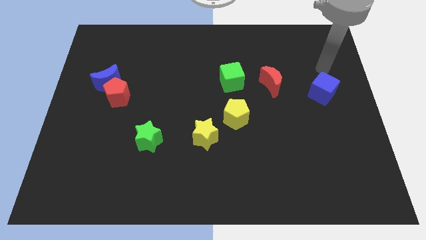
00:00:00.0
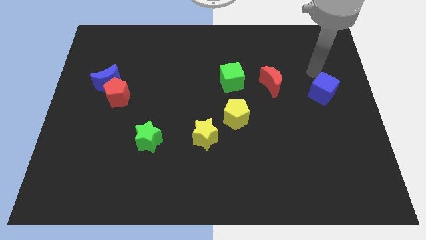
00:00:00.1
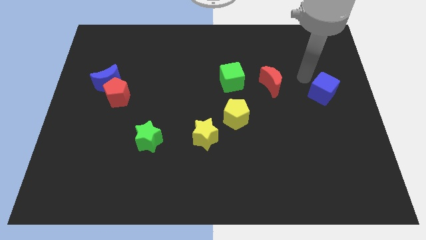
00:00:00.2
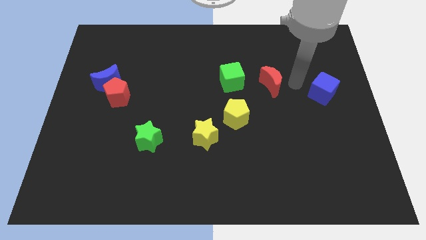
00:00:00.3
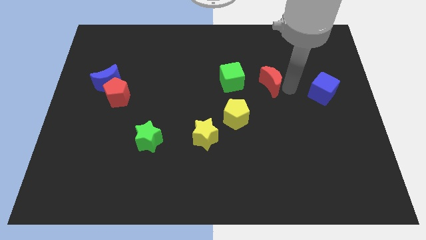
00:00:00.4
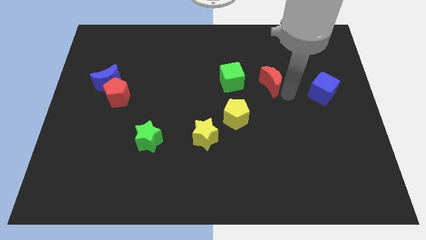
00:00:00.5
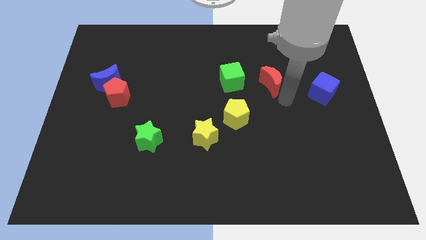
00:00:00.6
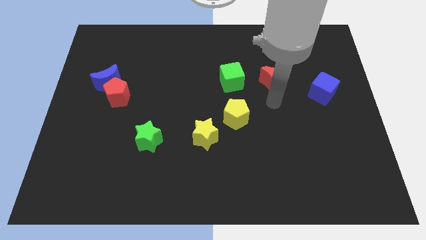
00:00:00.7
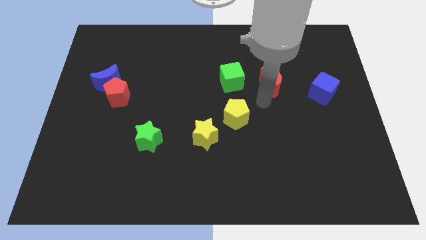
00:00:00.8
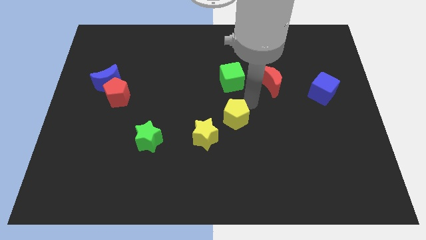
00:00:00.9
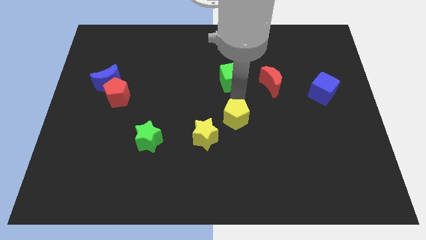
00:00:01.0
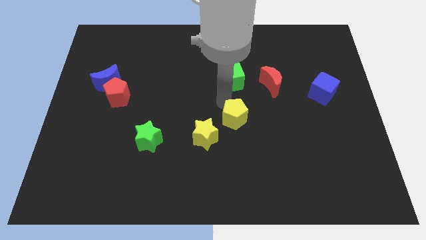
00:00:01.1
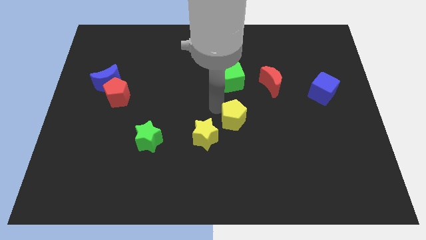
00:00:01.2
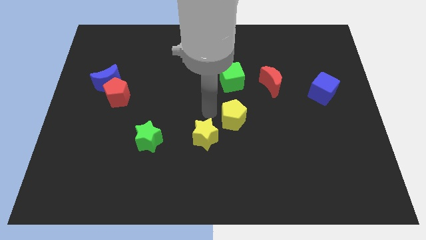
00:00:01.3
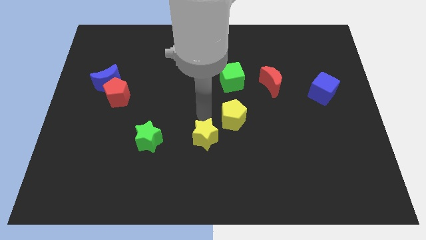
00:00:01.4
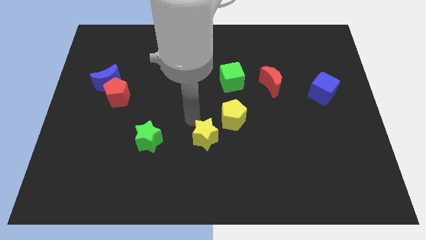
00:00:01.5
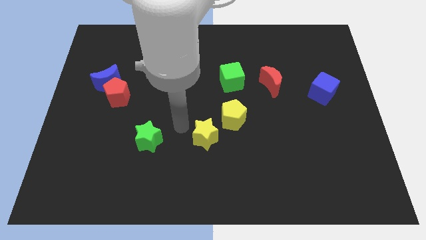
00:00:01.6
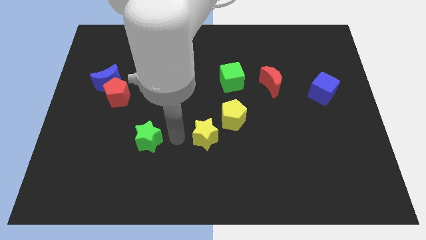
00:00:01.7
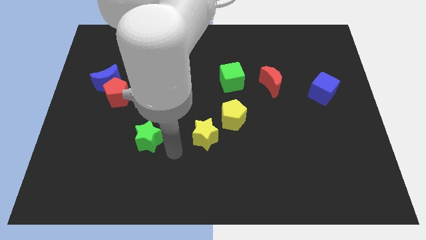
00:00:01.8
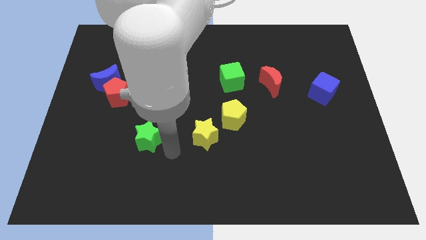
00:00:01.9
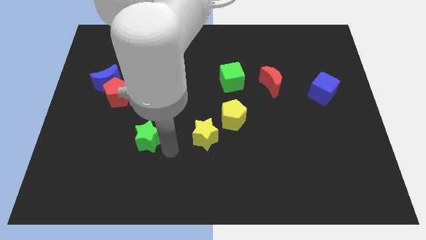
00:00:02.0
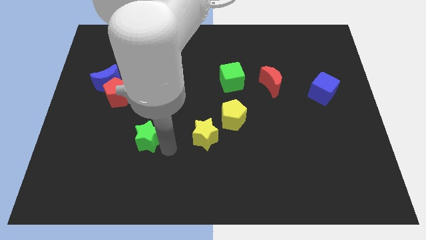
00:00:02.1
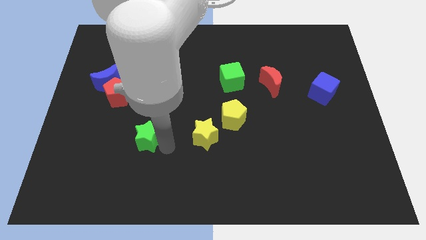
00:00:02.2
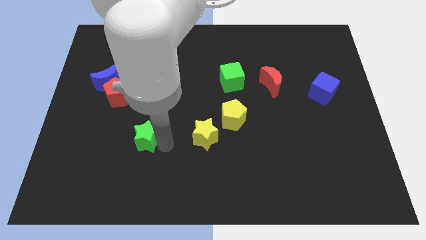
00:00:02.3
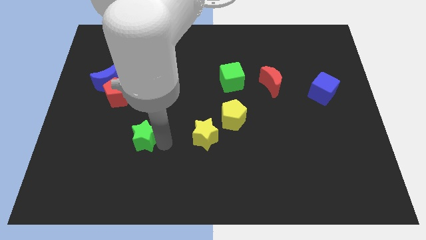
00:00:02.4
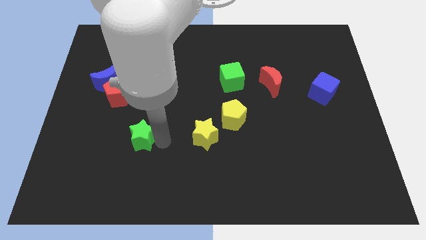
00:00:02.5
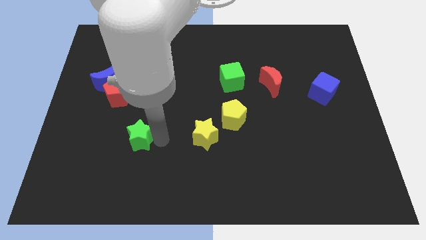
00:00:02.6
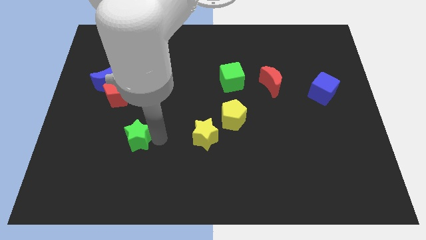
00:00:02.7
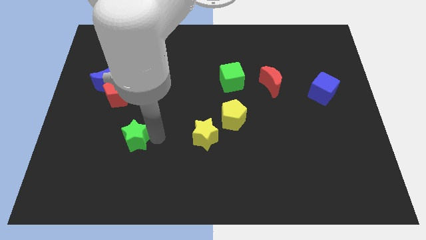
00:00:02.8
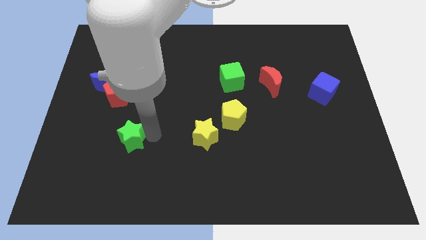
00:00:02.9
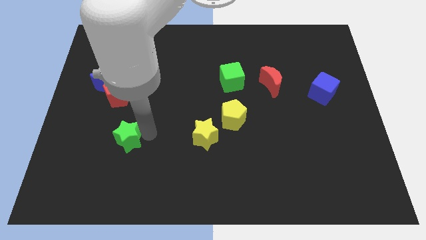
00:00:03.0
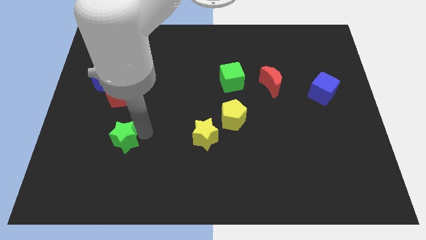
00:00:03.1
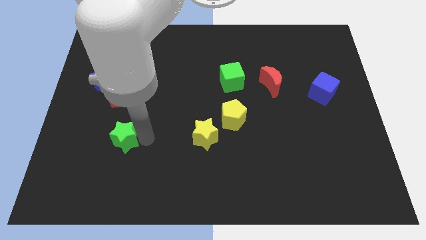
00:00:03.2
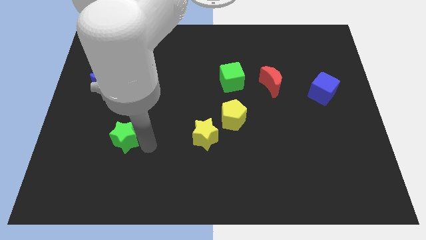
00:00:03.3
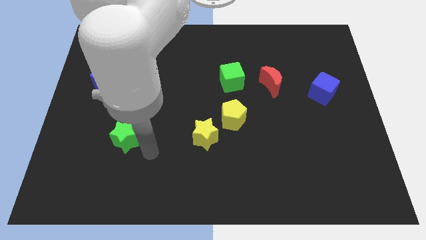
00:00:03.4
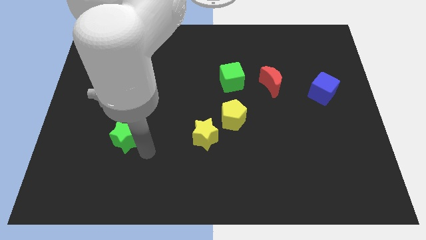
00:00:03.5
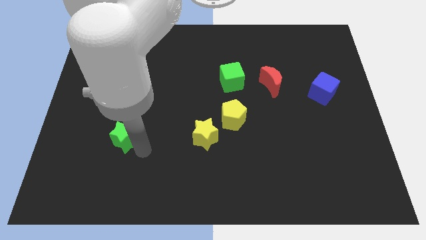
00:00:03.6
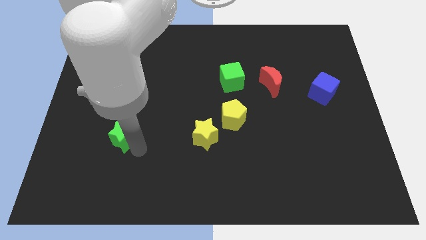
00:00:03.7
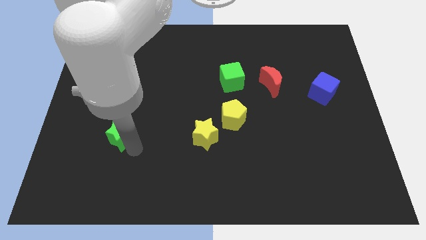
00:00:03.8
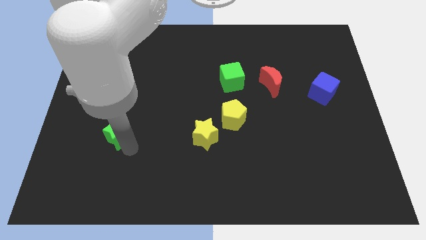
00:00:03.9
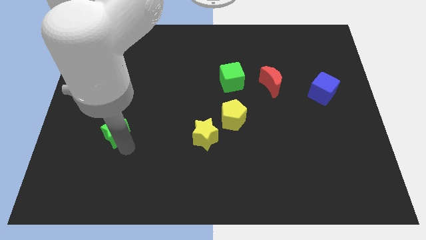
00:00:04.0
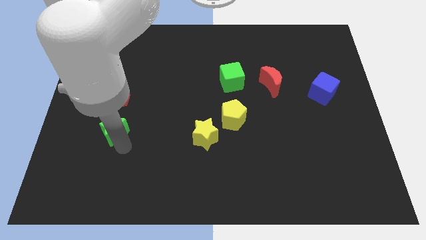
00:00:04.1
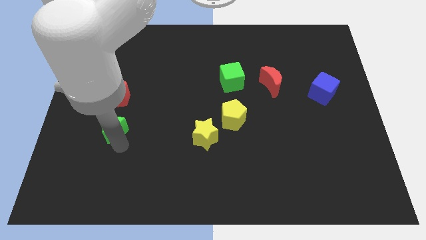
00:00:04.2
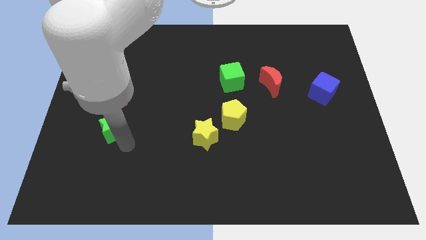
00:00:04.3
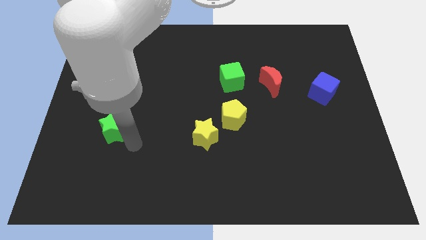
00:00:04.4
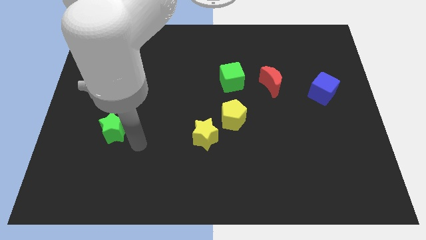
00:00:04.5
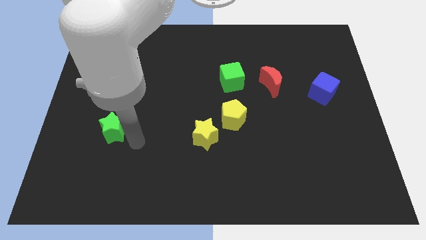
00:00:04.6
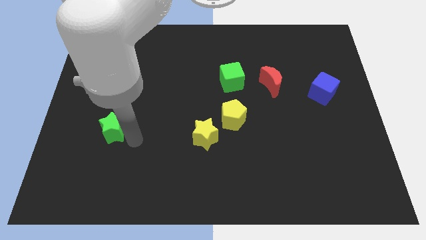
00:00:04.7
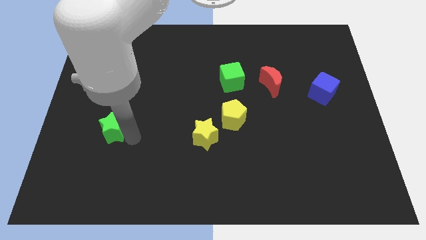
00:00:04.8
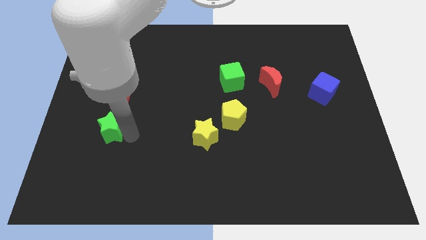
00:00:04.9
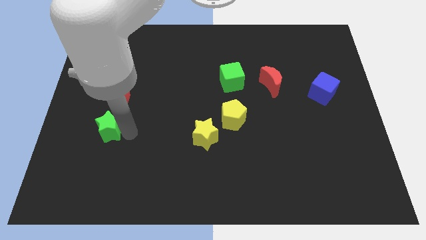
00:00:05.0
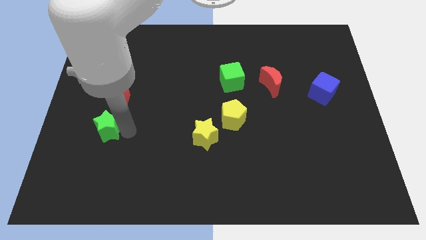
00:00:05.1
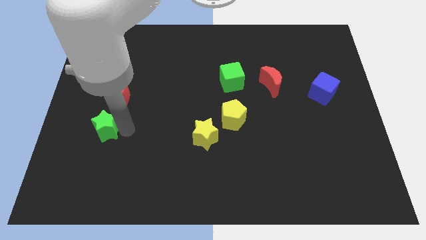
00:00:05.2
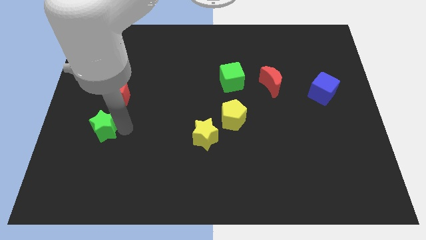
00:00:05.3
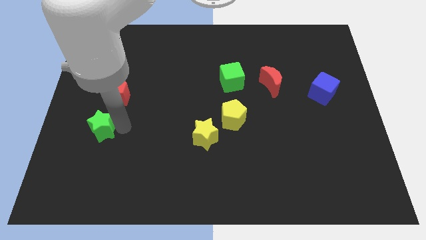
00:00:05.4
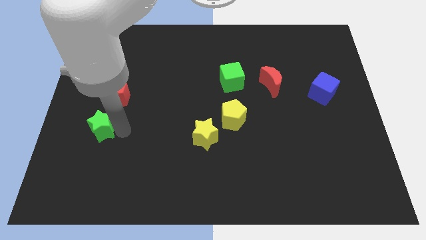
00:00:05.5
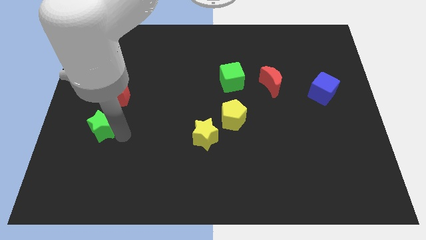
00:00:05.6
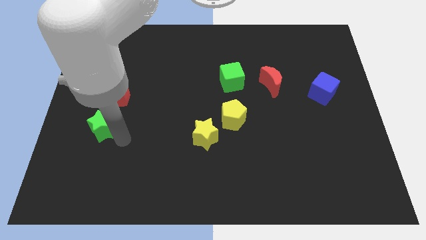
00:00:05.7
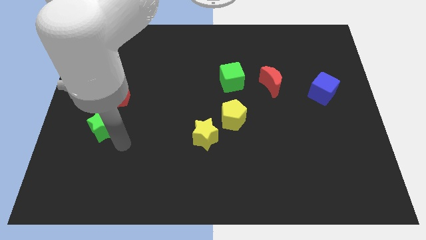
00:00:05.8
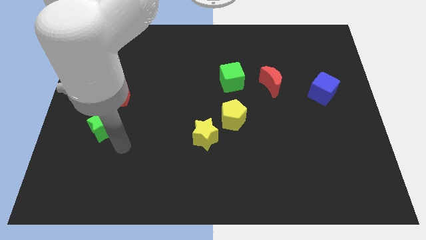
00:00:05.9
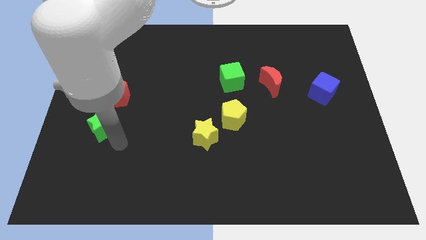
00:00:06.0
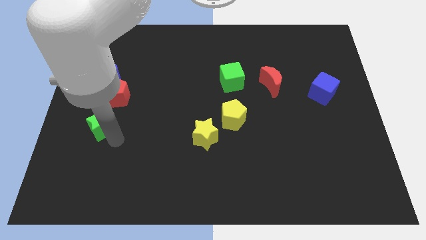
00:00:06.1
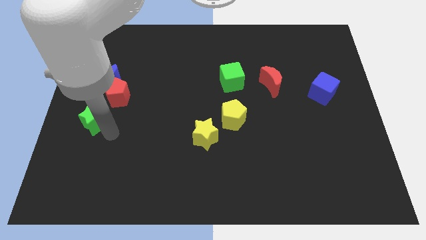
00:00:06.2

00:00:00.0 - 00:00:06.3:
slide the green star to the center left

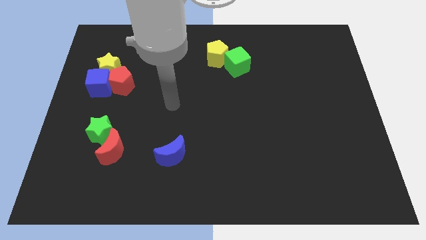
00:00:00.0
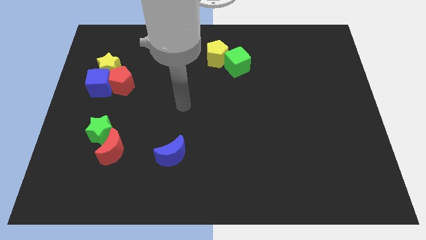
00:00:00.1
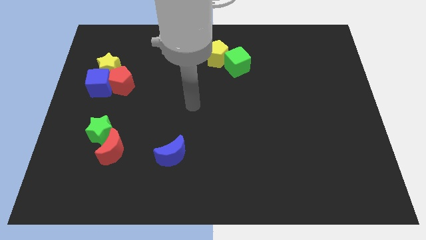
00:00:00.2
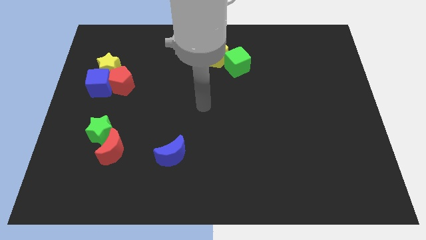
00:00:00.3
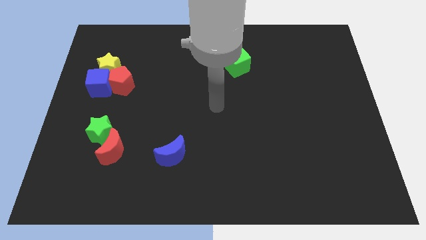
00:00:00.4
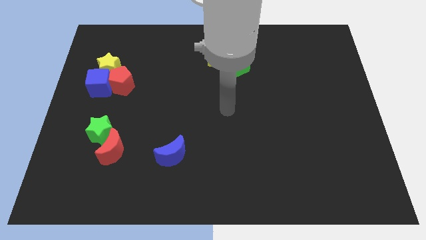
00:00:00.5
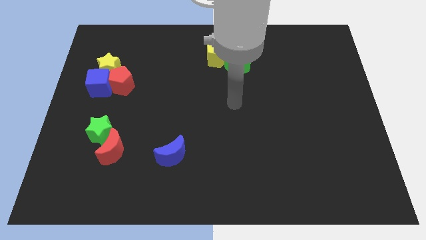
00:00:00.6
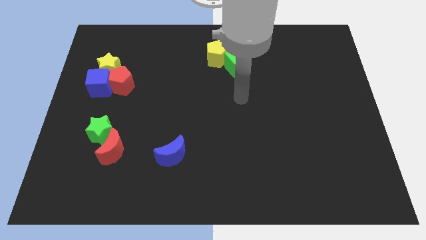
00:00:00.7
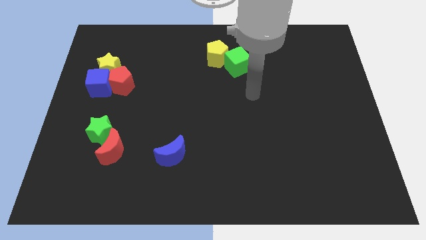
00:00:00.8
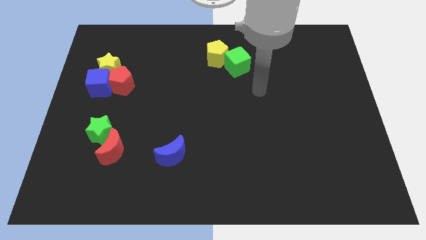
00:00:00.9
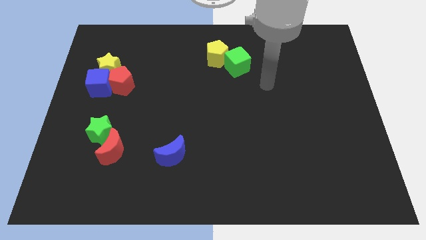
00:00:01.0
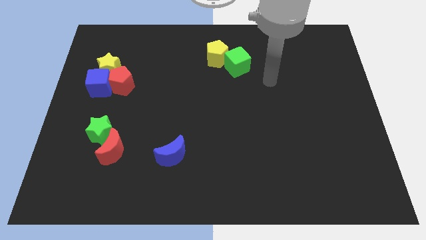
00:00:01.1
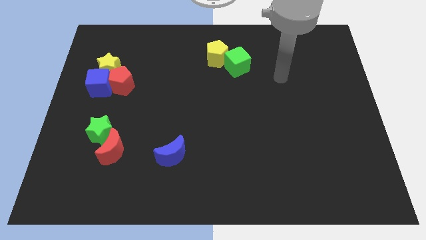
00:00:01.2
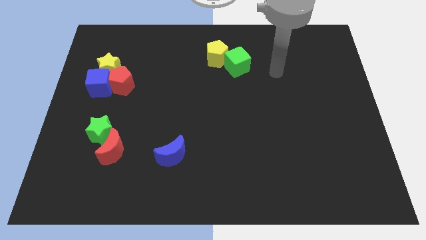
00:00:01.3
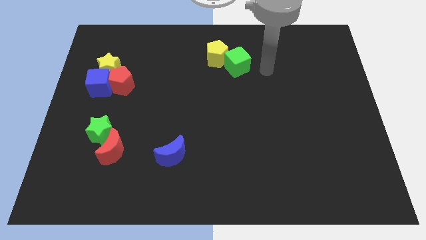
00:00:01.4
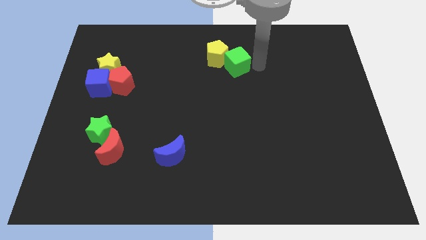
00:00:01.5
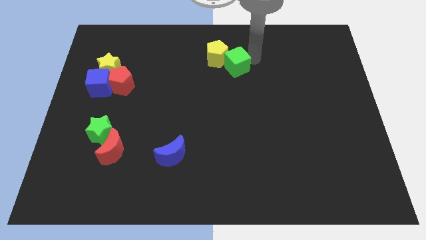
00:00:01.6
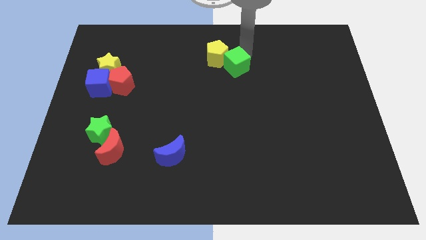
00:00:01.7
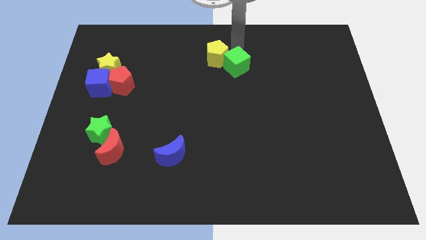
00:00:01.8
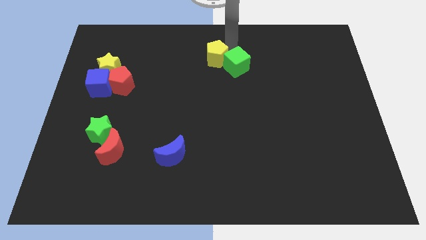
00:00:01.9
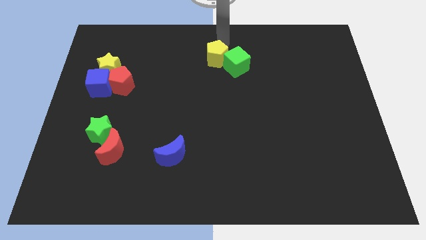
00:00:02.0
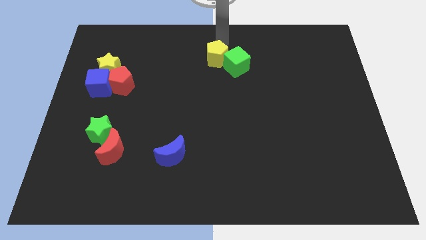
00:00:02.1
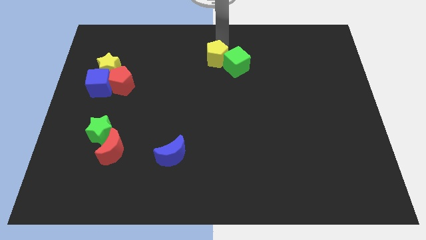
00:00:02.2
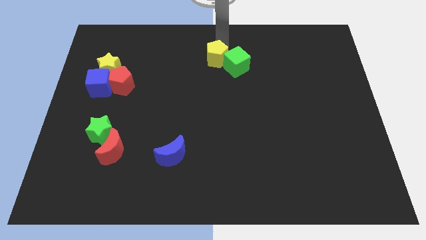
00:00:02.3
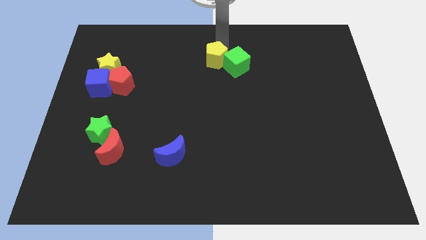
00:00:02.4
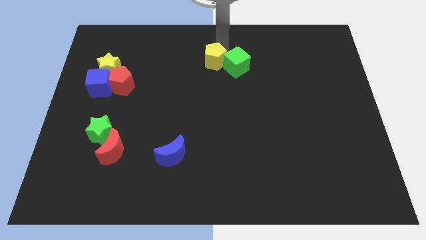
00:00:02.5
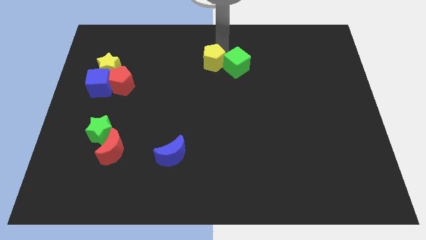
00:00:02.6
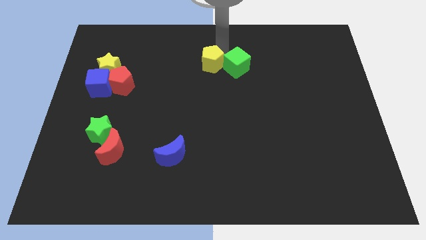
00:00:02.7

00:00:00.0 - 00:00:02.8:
move the yellow pentagon to the middle of the board
